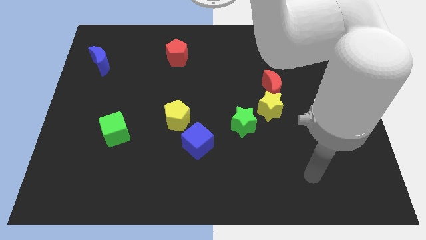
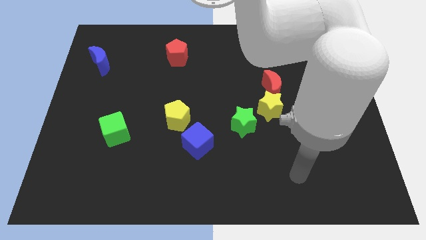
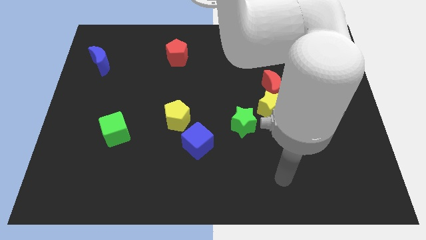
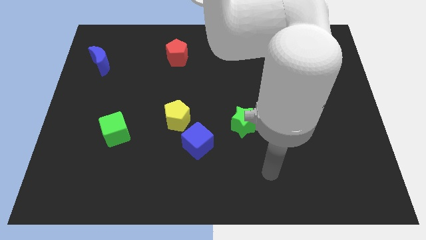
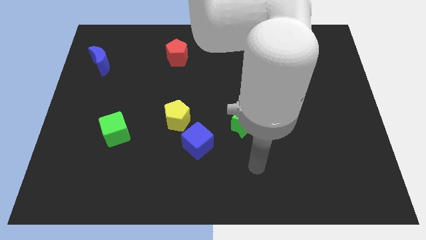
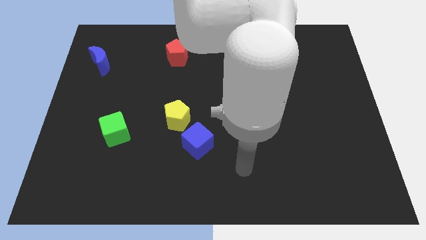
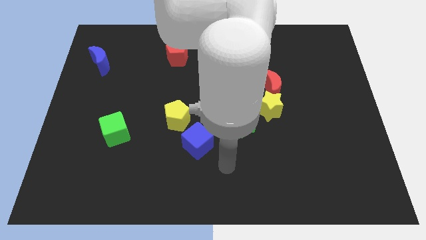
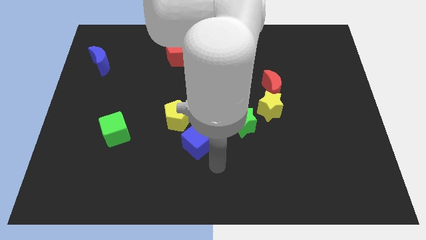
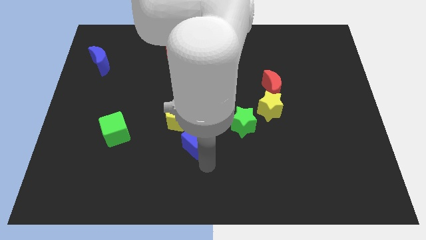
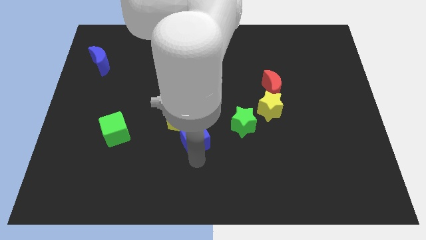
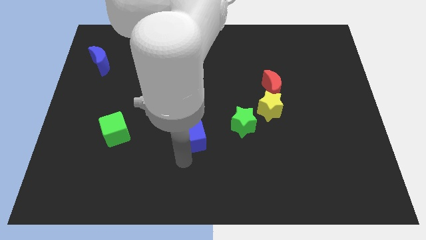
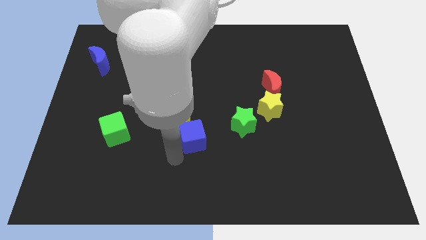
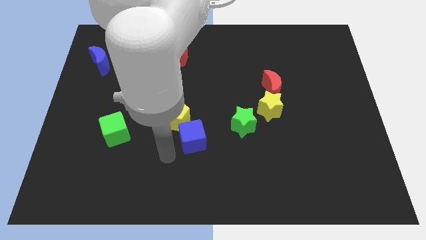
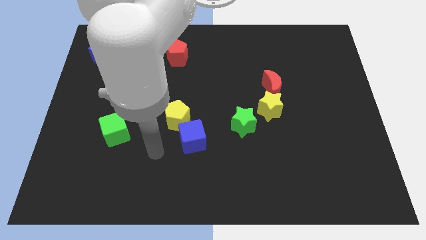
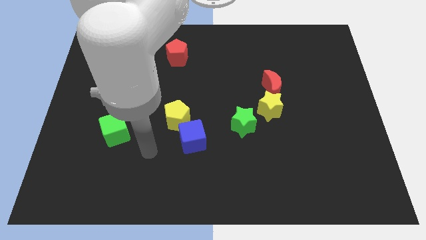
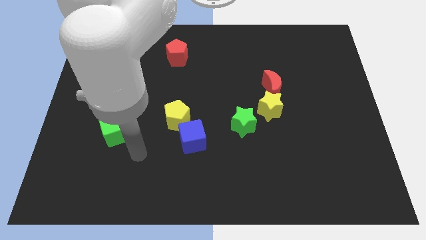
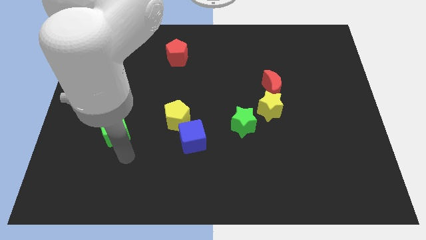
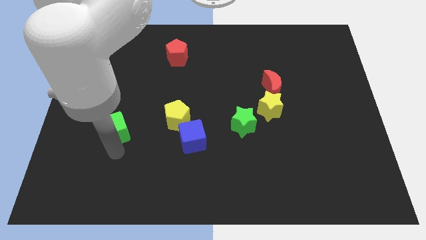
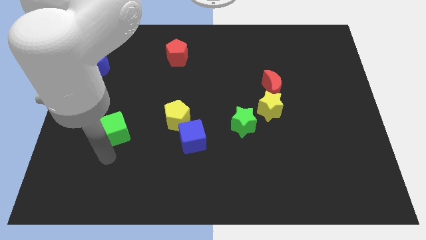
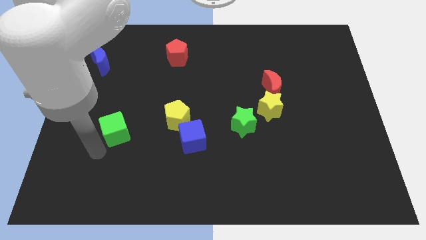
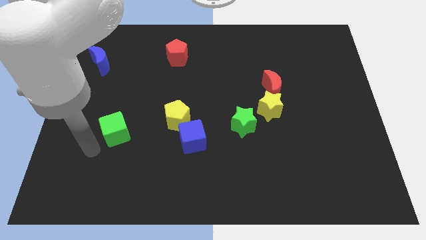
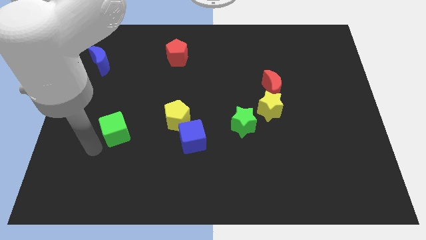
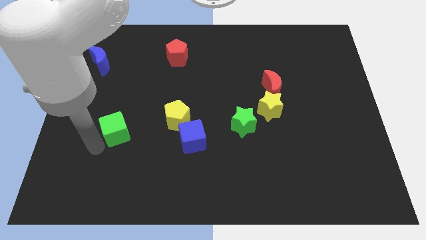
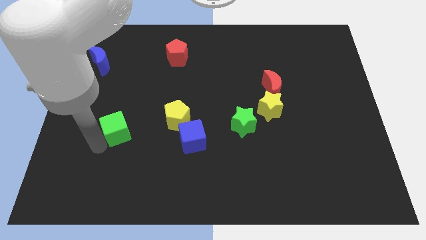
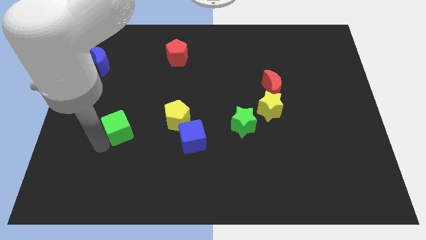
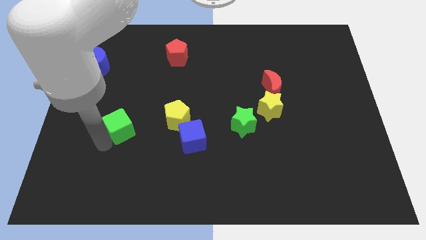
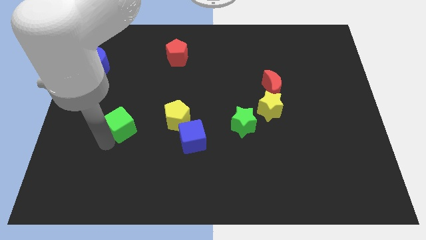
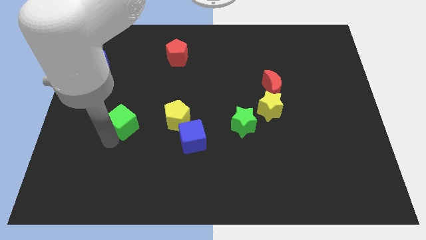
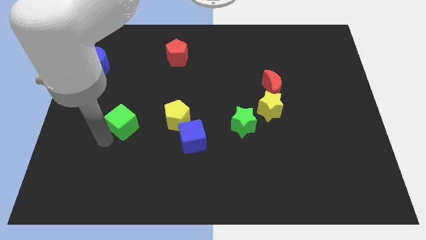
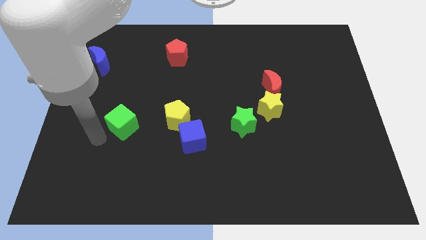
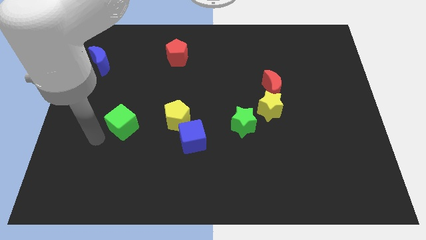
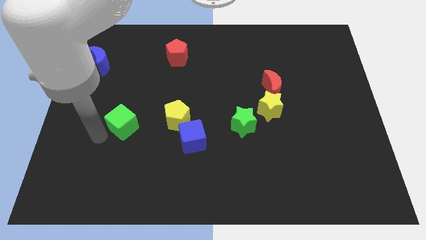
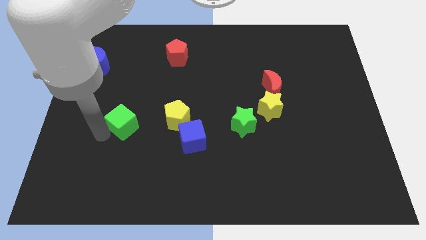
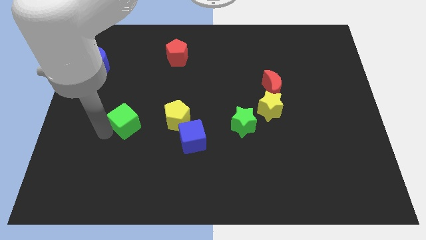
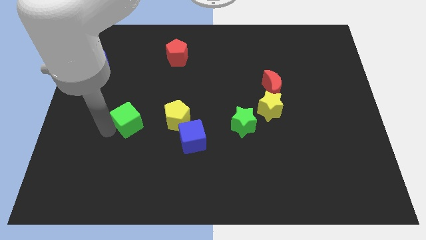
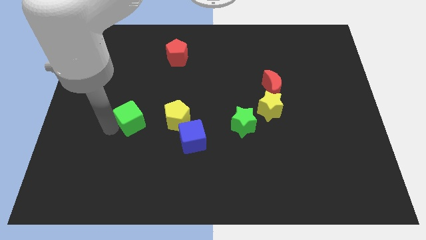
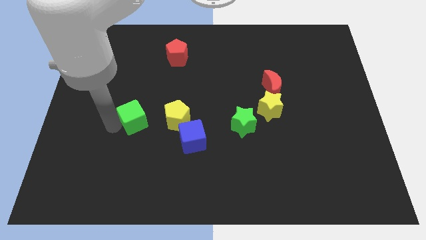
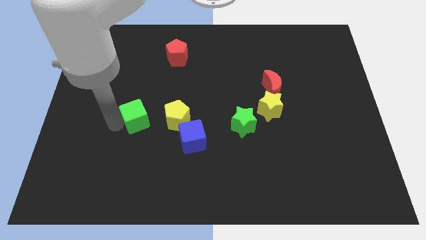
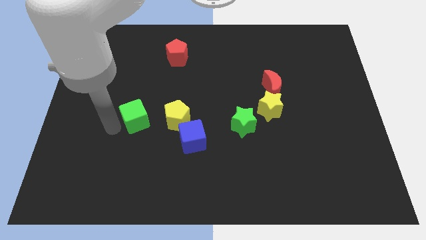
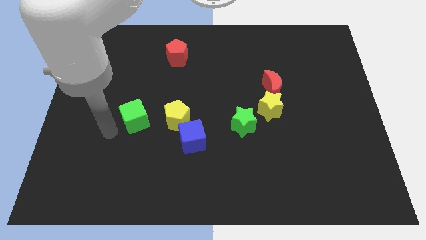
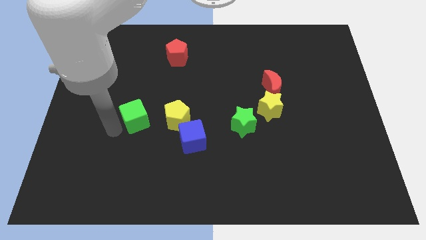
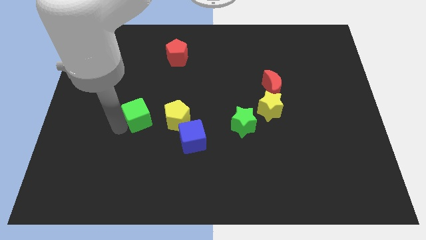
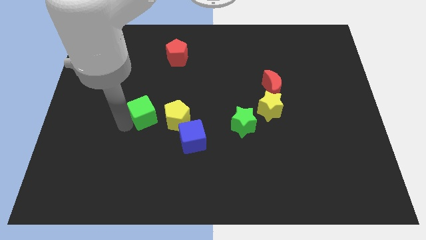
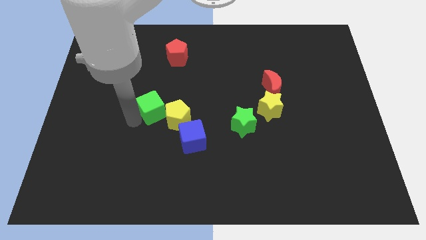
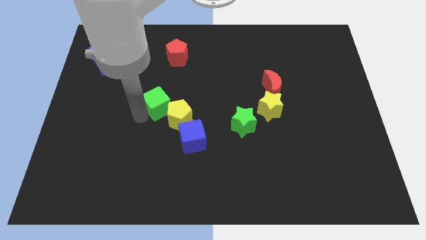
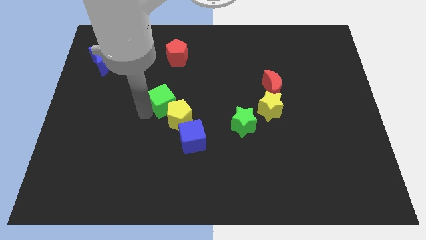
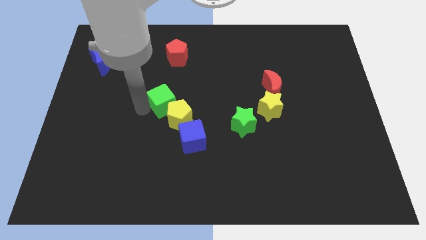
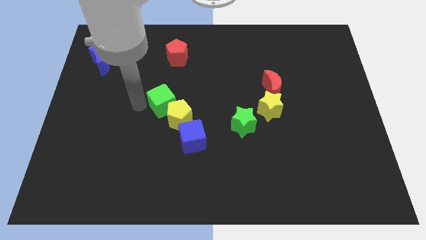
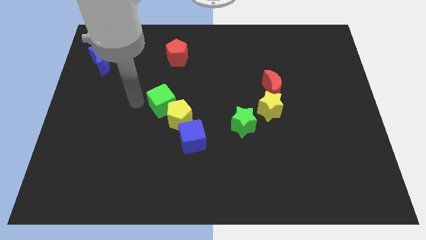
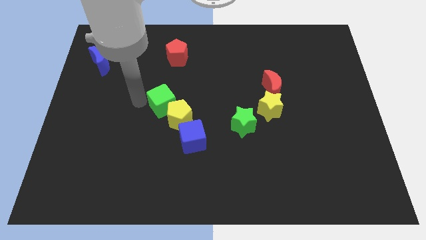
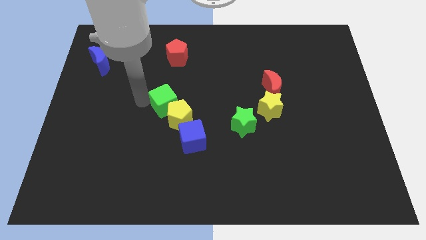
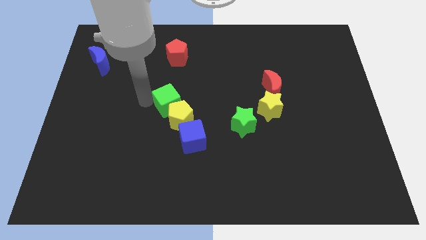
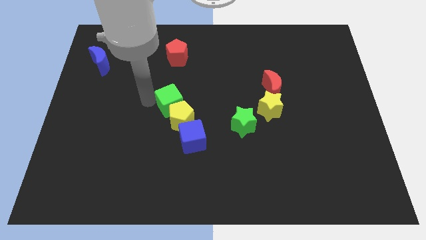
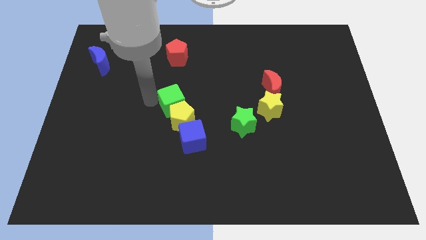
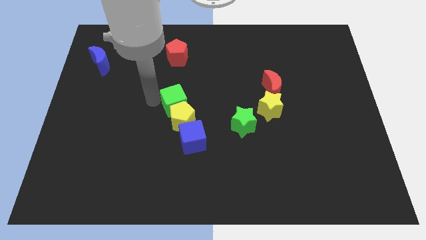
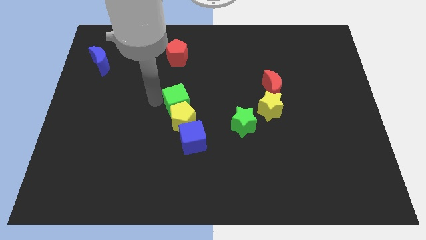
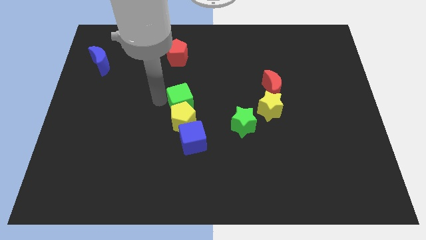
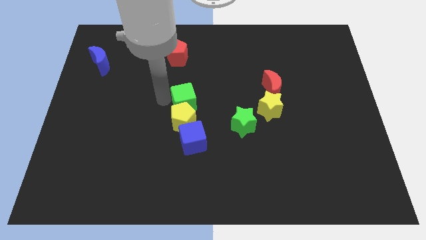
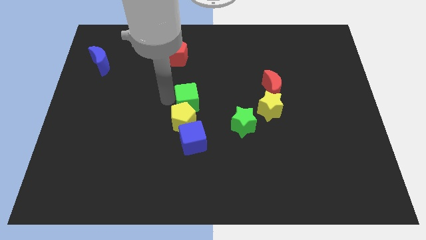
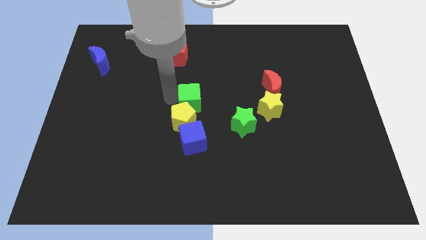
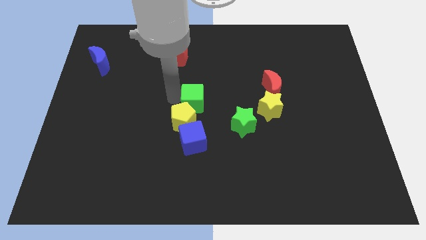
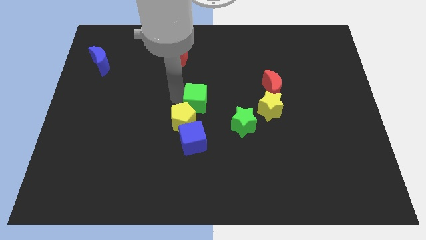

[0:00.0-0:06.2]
push the green cube to the top left side of the green star

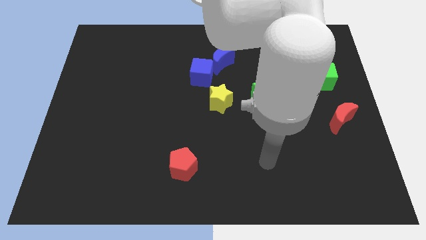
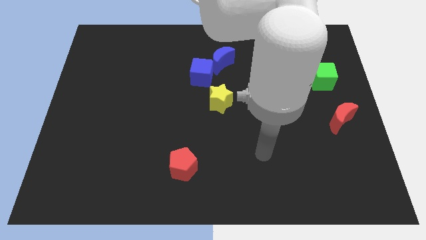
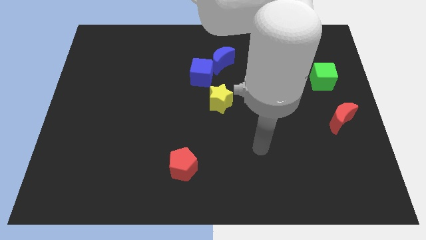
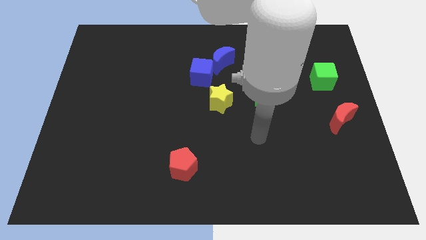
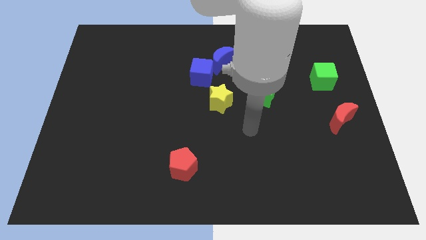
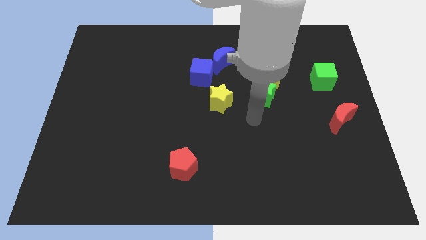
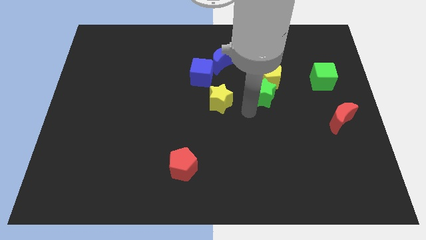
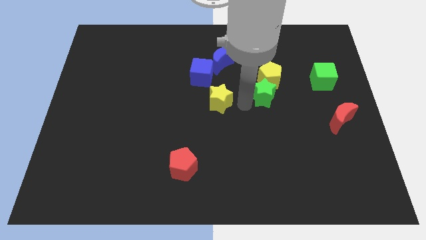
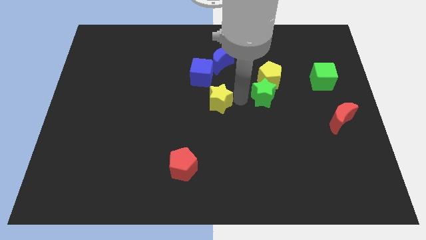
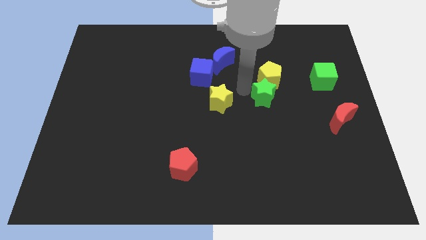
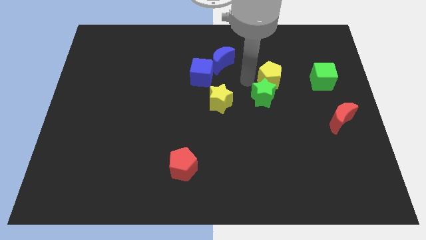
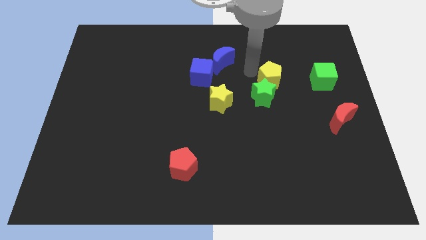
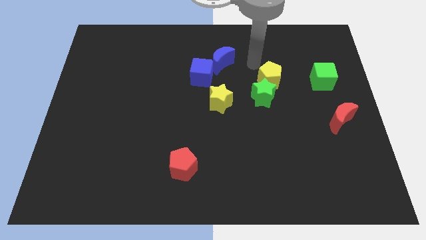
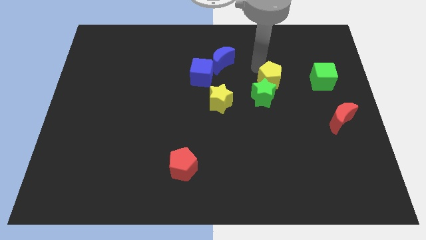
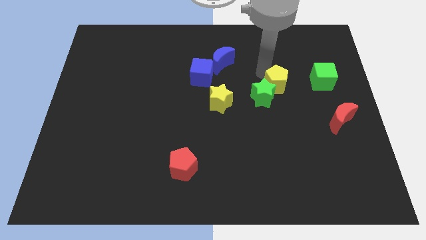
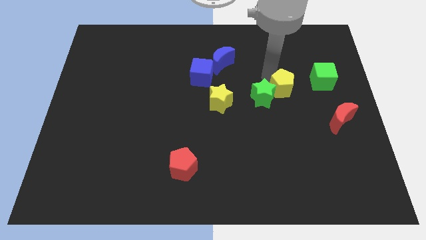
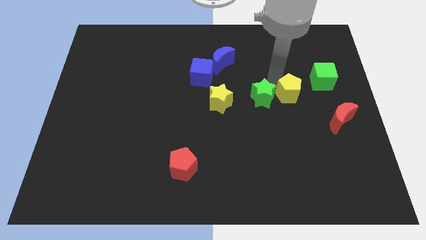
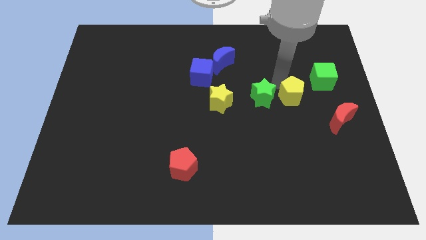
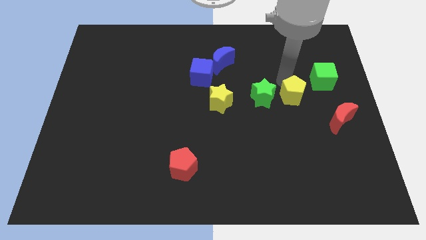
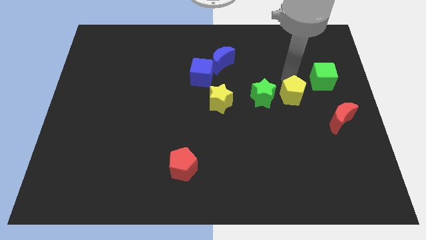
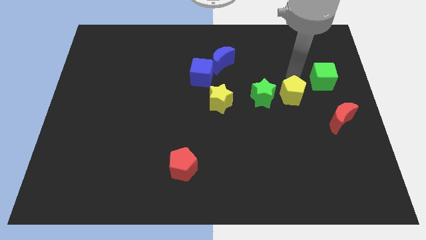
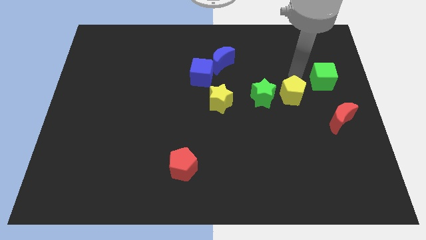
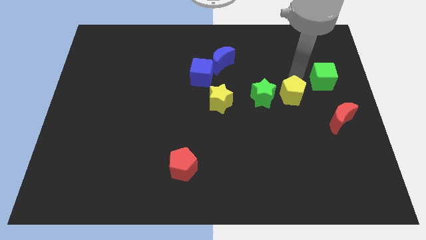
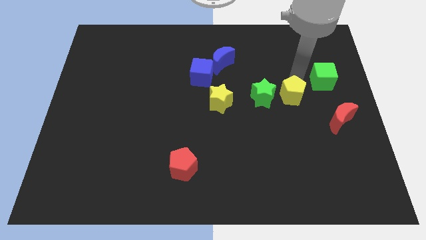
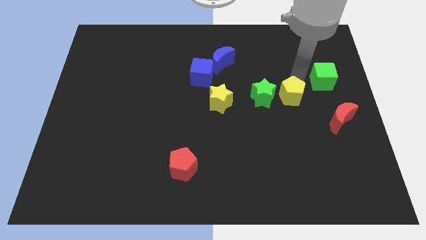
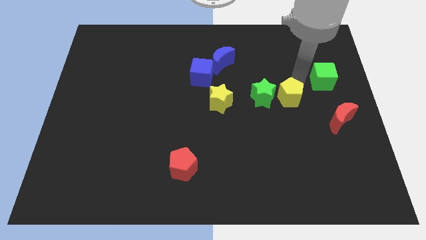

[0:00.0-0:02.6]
slide the yellow pentagon to the bottom right of the green star
